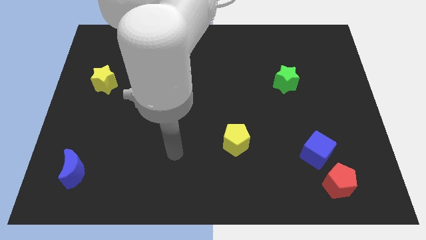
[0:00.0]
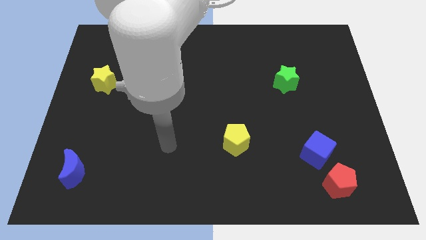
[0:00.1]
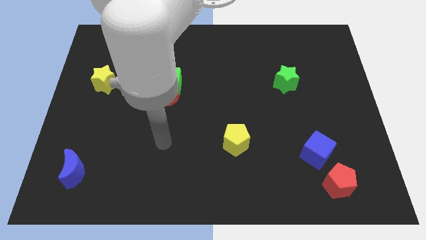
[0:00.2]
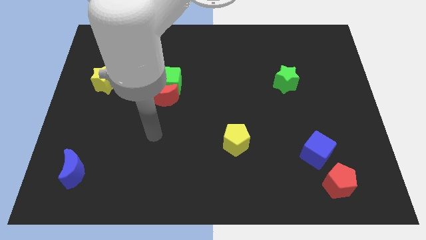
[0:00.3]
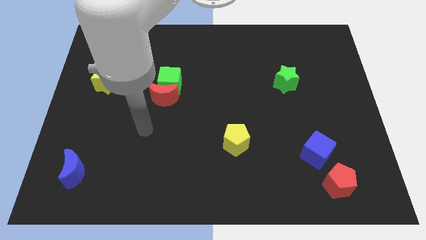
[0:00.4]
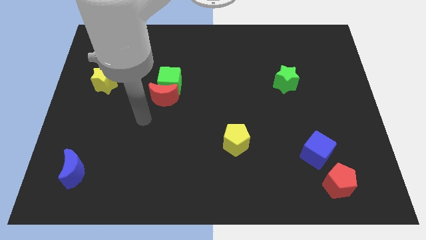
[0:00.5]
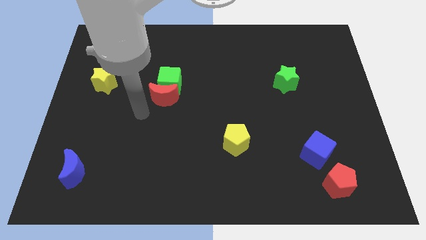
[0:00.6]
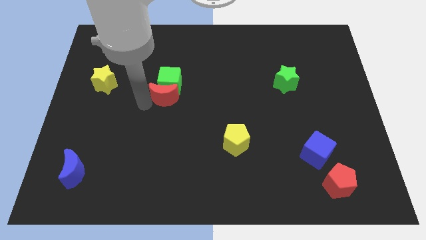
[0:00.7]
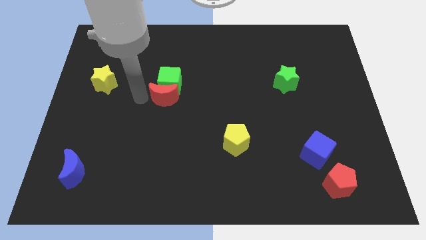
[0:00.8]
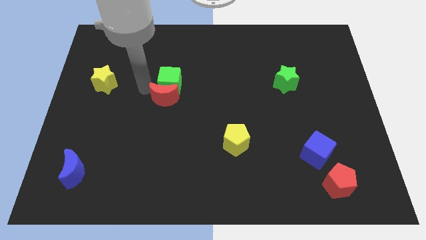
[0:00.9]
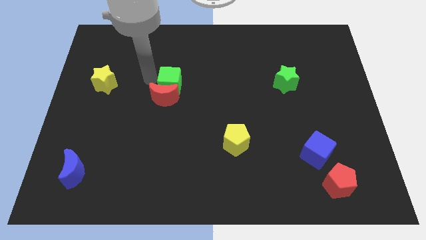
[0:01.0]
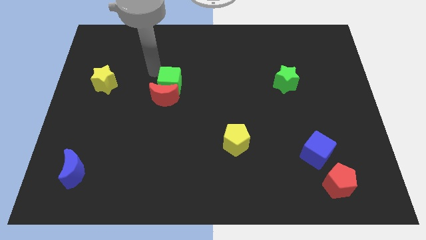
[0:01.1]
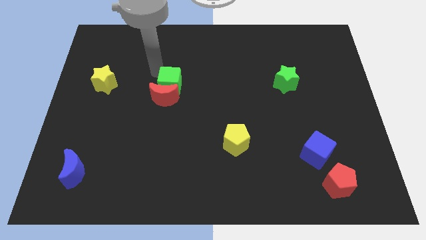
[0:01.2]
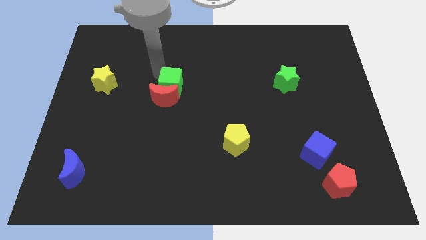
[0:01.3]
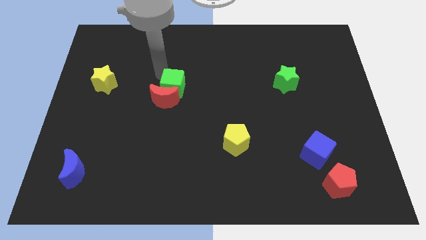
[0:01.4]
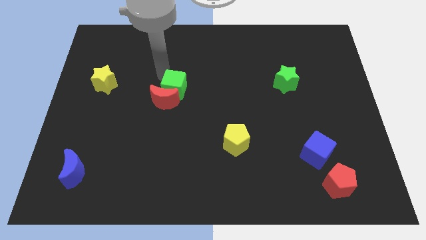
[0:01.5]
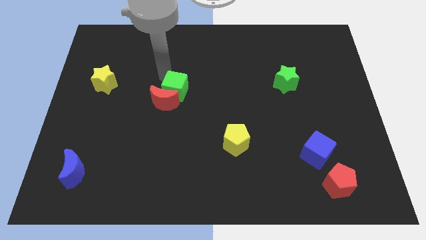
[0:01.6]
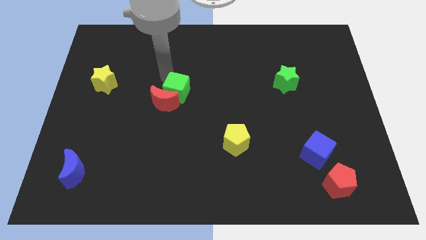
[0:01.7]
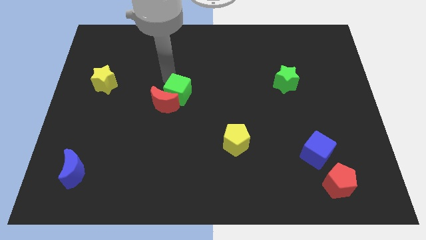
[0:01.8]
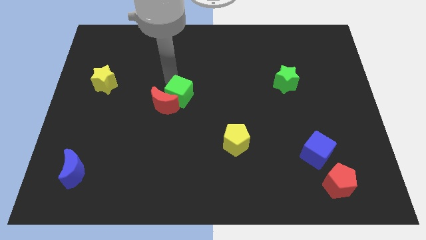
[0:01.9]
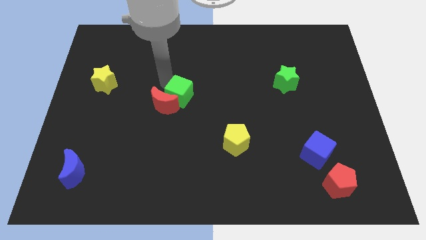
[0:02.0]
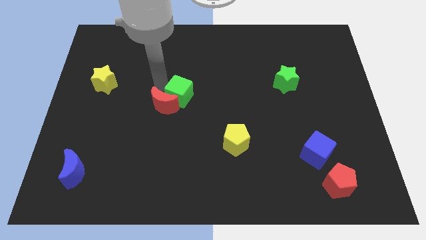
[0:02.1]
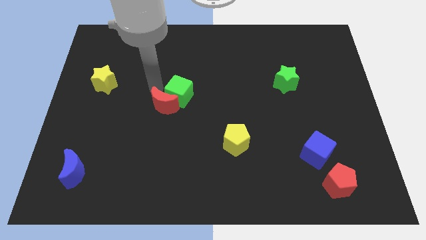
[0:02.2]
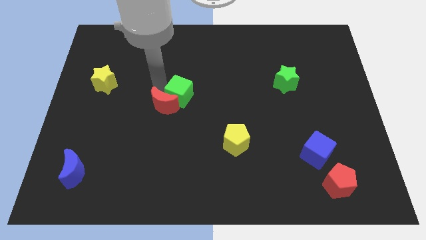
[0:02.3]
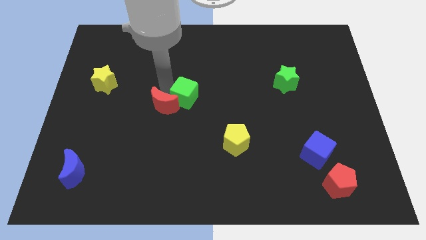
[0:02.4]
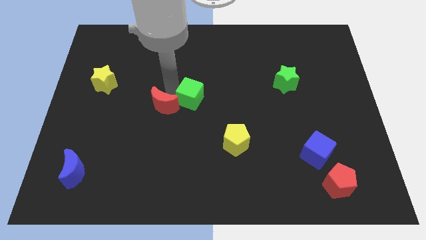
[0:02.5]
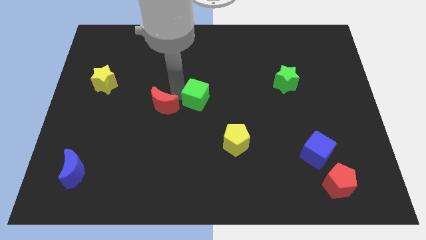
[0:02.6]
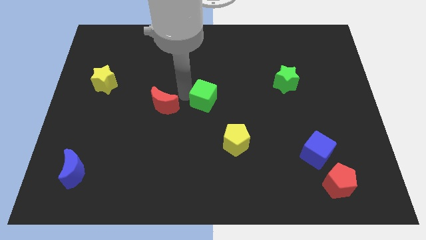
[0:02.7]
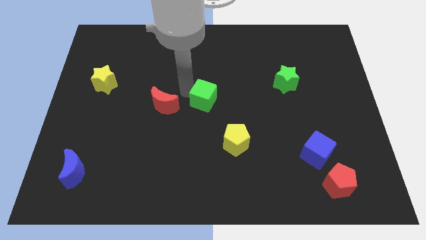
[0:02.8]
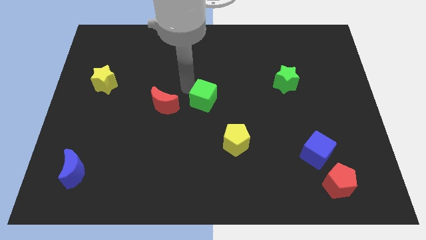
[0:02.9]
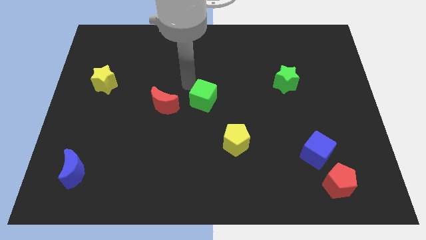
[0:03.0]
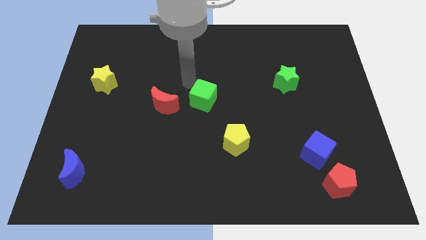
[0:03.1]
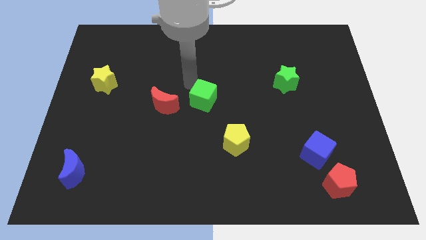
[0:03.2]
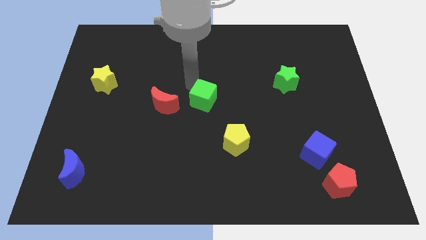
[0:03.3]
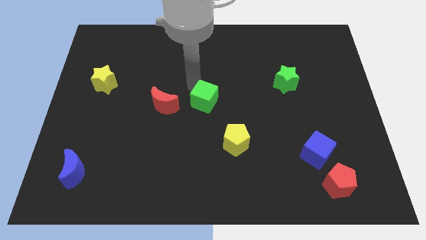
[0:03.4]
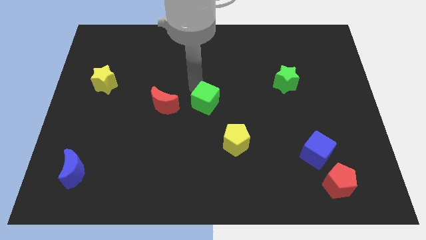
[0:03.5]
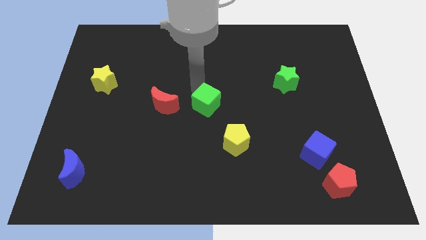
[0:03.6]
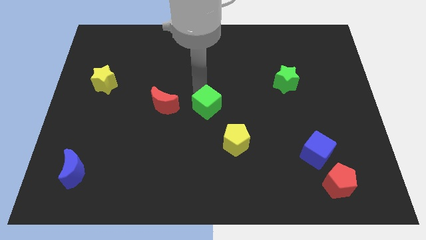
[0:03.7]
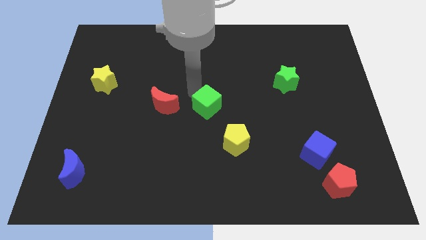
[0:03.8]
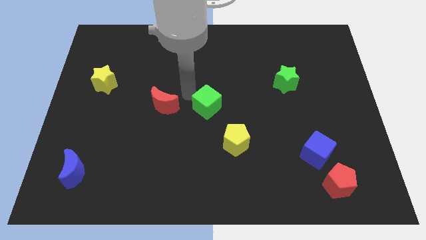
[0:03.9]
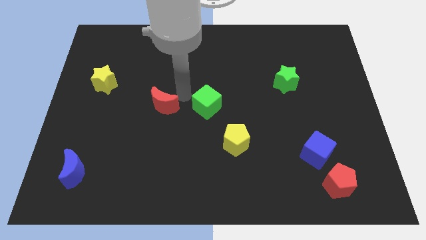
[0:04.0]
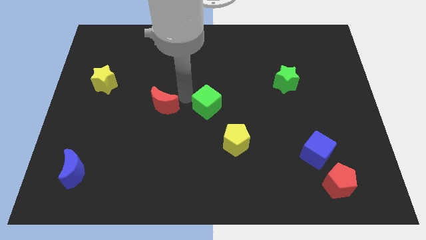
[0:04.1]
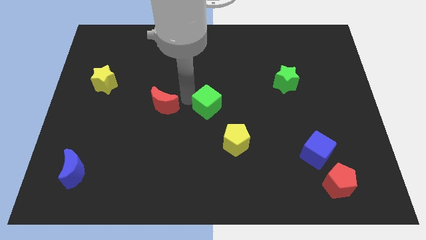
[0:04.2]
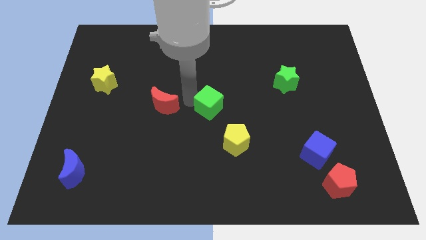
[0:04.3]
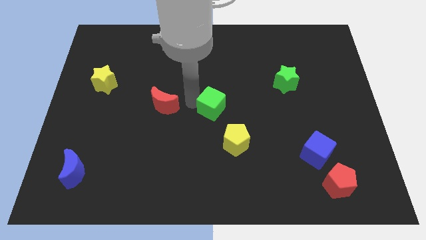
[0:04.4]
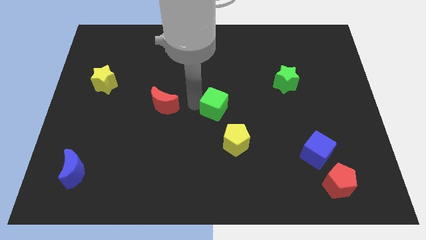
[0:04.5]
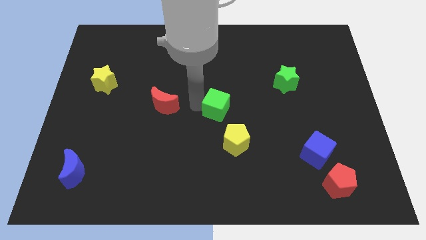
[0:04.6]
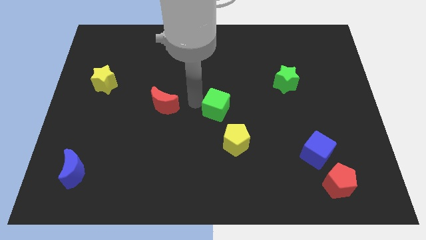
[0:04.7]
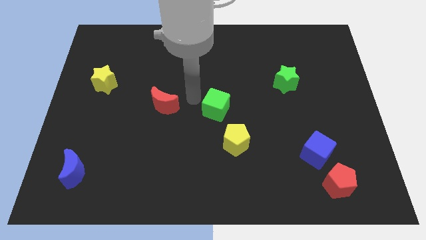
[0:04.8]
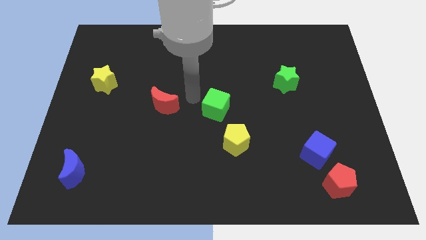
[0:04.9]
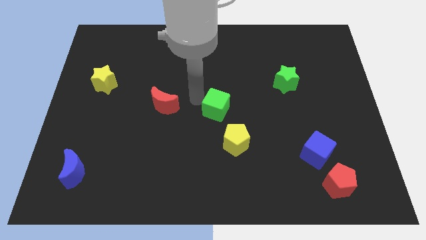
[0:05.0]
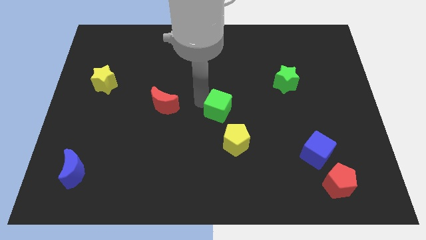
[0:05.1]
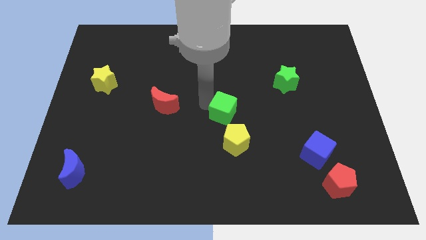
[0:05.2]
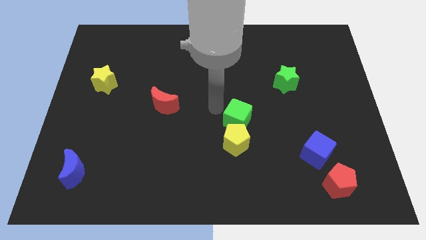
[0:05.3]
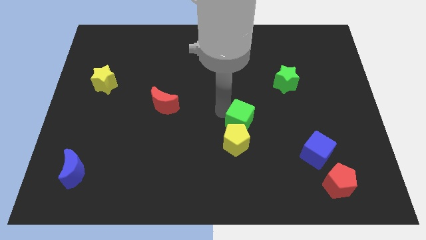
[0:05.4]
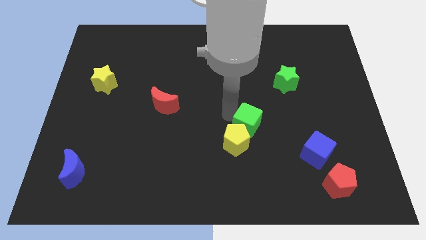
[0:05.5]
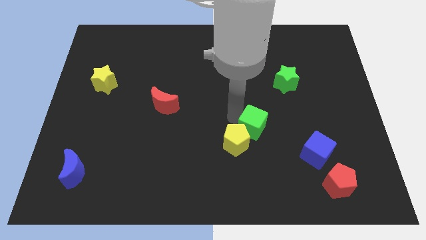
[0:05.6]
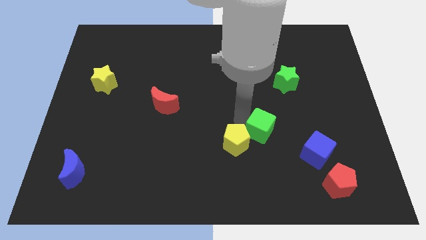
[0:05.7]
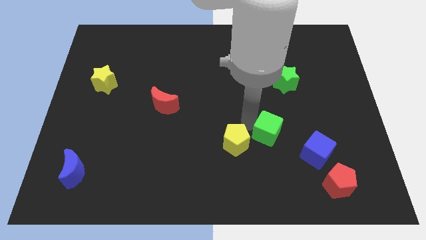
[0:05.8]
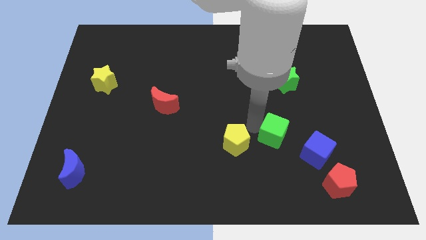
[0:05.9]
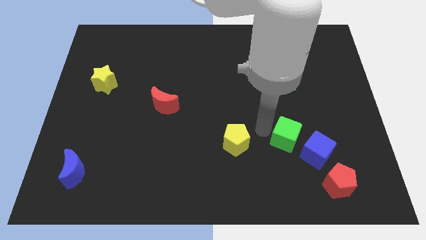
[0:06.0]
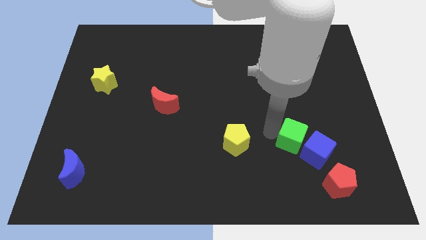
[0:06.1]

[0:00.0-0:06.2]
slide the green cube next to the blue cube

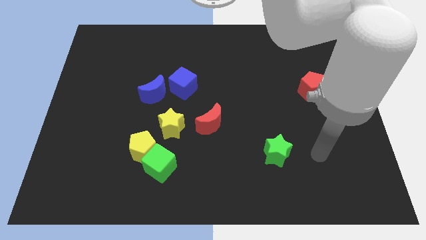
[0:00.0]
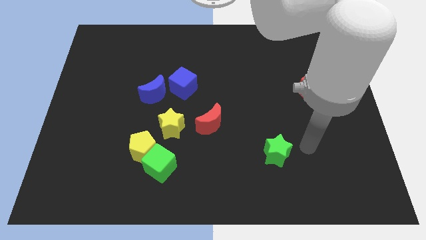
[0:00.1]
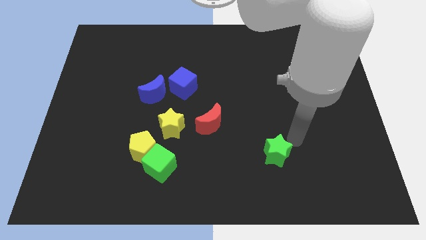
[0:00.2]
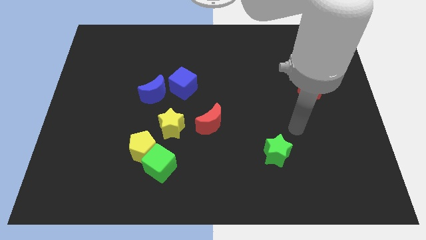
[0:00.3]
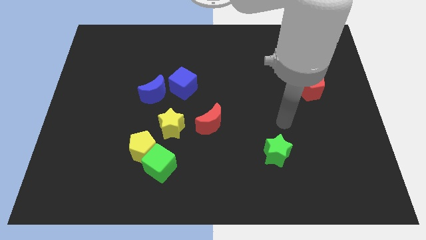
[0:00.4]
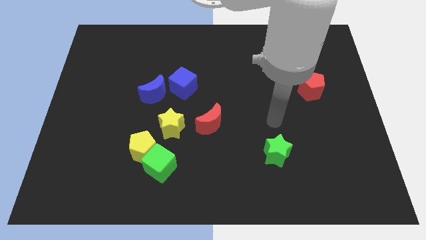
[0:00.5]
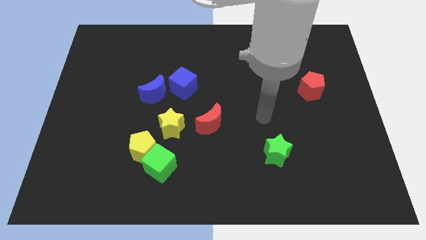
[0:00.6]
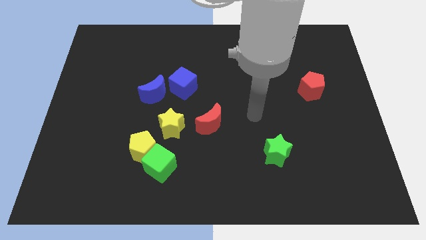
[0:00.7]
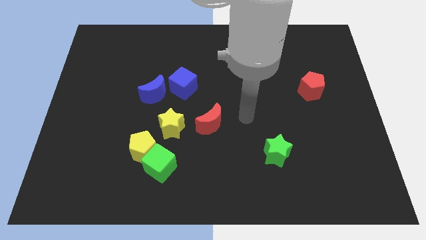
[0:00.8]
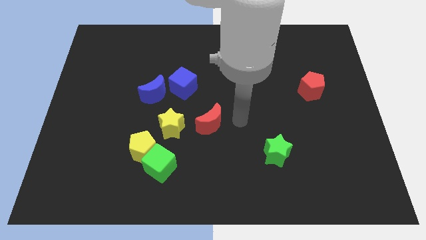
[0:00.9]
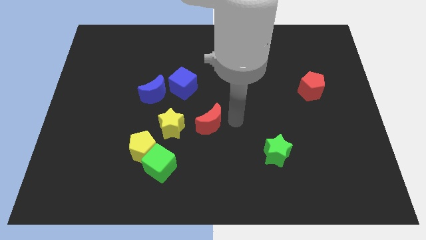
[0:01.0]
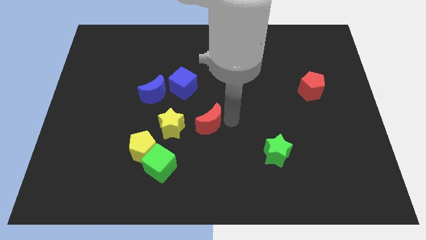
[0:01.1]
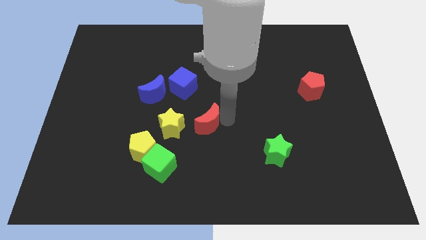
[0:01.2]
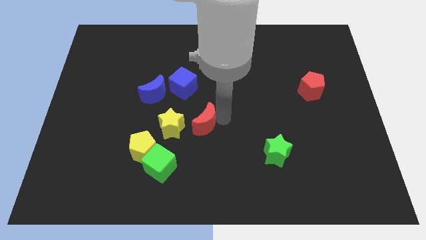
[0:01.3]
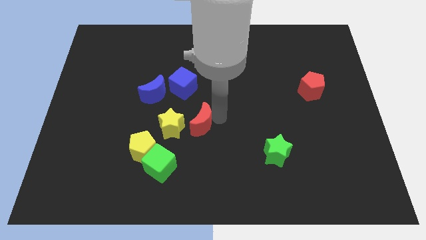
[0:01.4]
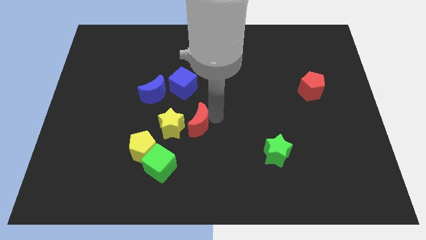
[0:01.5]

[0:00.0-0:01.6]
slide the red moon next to the yellow star
